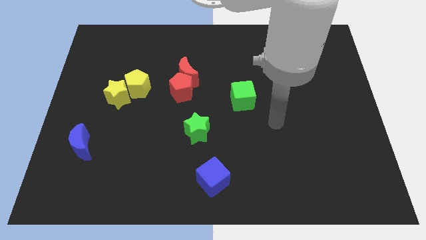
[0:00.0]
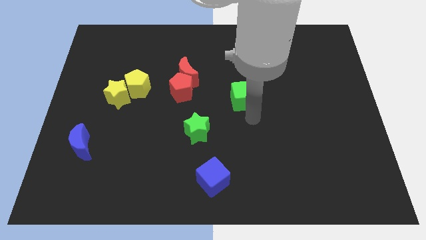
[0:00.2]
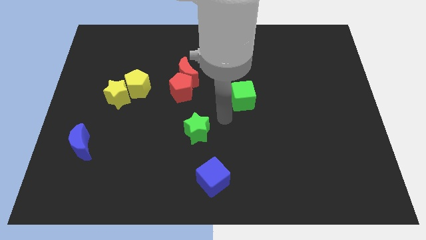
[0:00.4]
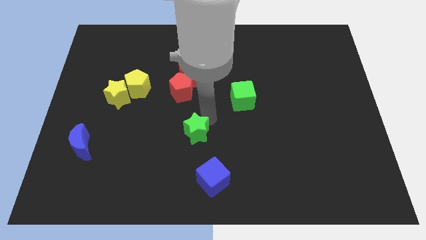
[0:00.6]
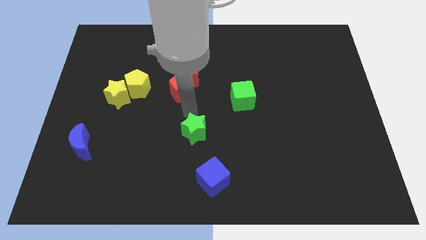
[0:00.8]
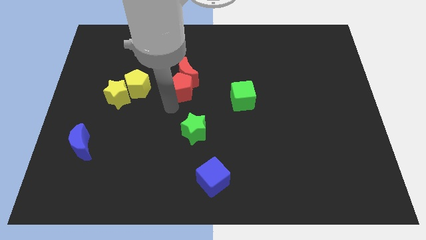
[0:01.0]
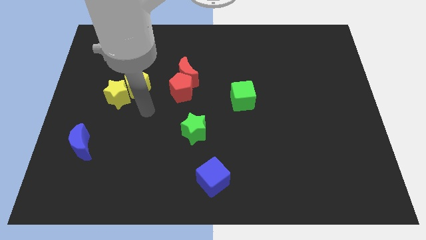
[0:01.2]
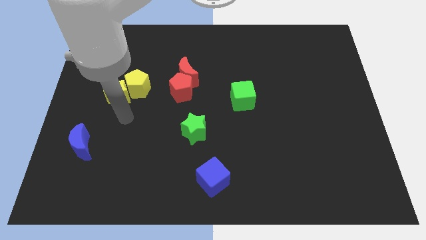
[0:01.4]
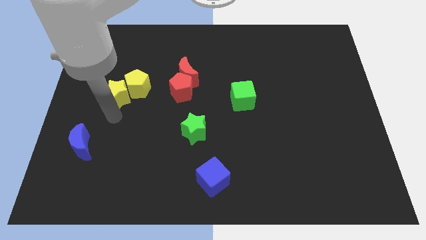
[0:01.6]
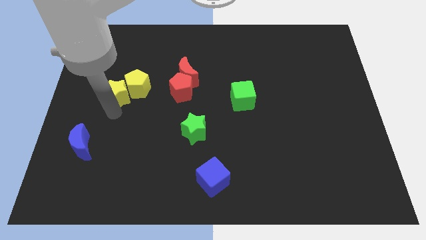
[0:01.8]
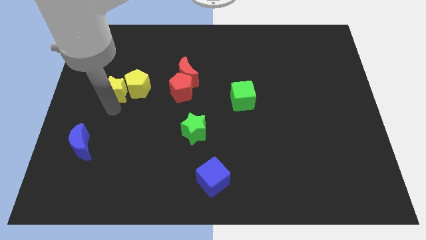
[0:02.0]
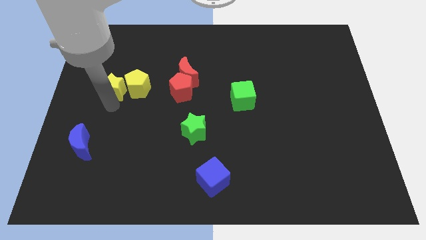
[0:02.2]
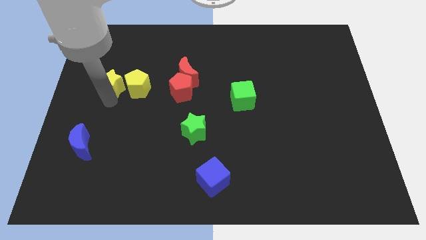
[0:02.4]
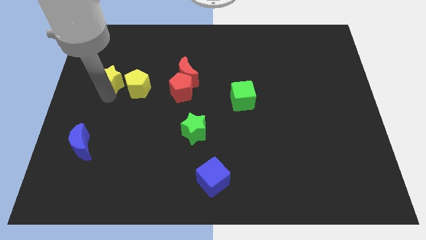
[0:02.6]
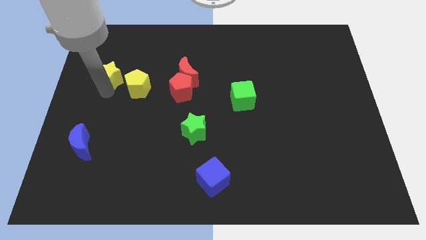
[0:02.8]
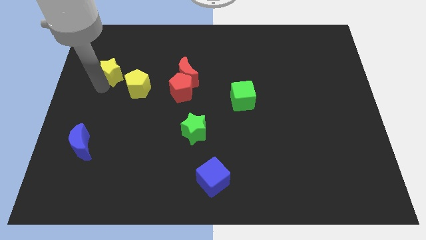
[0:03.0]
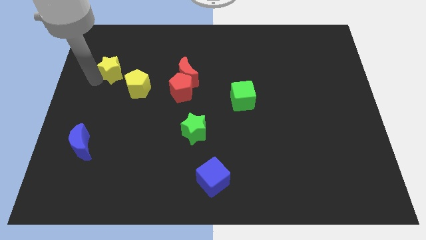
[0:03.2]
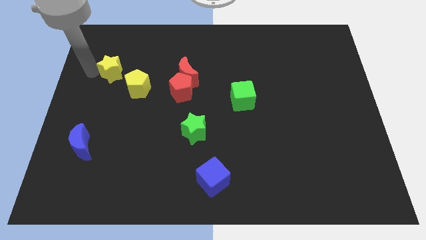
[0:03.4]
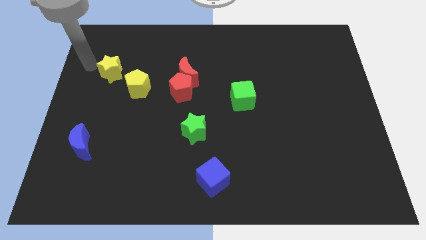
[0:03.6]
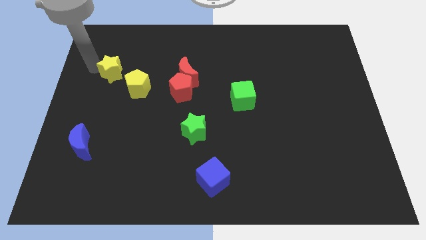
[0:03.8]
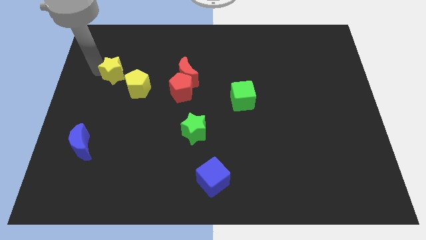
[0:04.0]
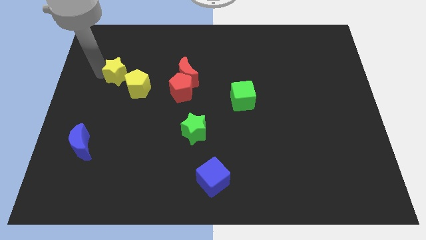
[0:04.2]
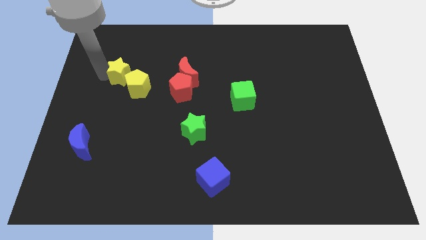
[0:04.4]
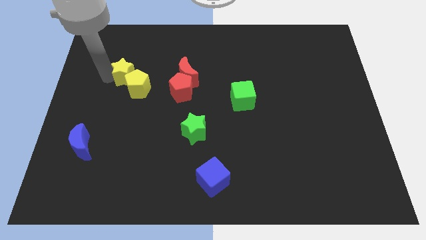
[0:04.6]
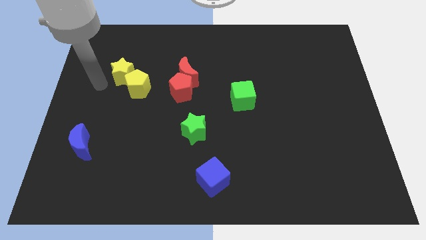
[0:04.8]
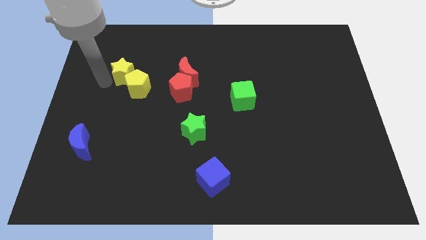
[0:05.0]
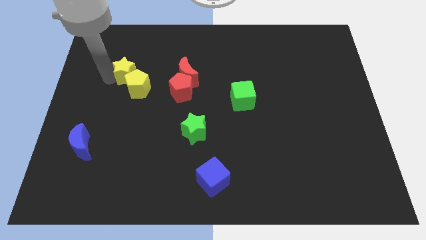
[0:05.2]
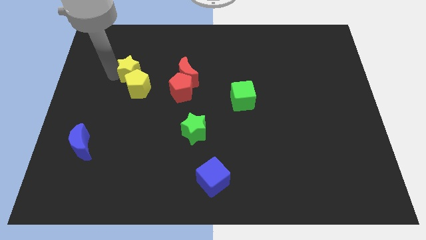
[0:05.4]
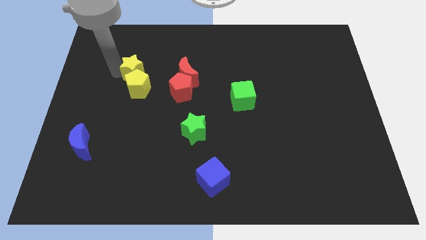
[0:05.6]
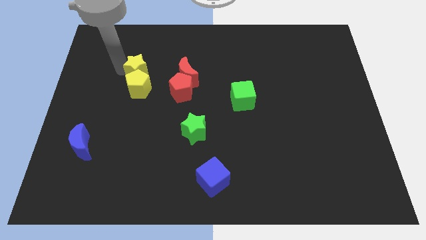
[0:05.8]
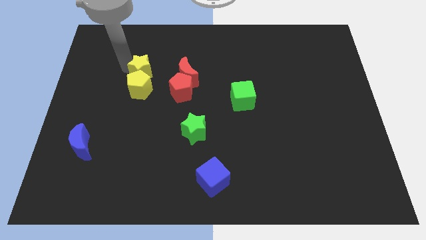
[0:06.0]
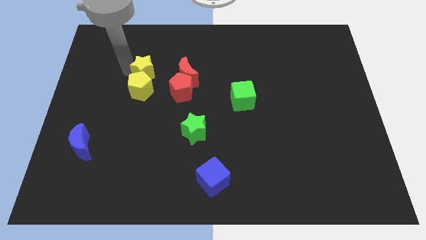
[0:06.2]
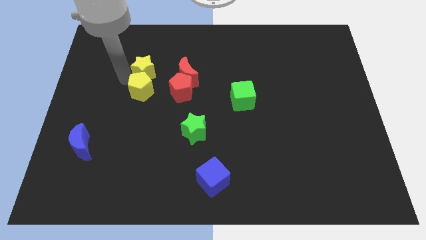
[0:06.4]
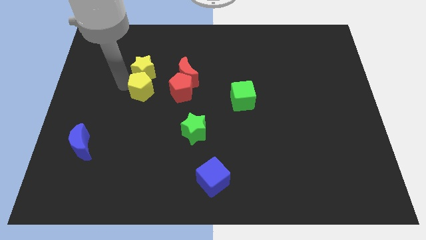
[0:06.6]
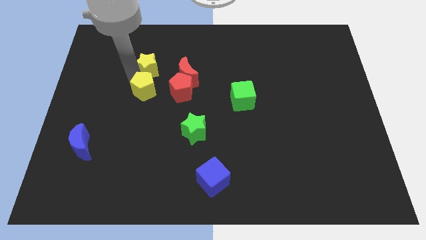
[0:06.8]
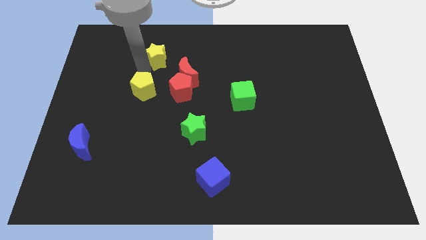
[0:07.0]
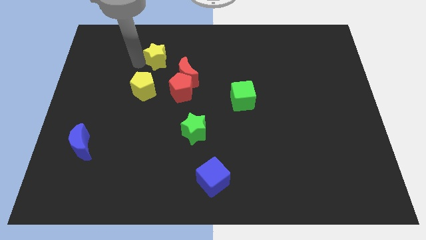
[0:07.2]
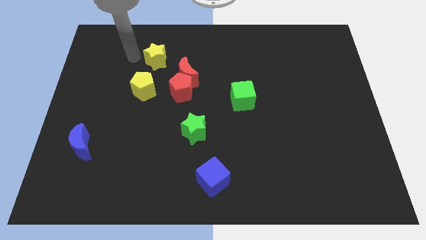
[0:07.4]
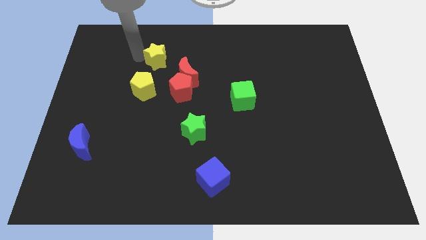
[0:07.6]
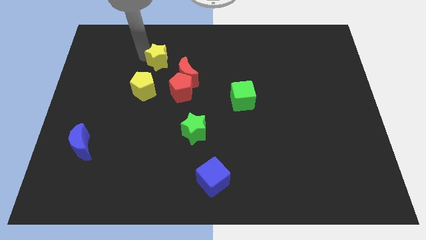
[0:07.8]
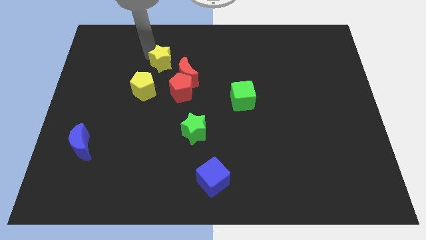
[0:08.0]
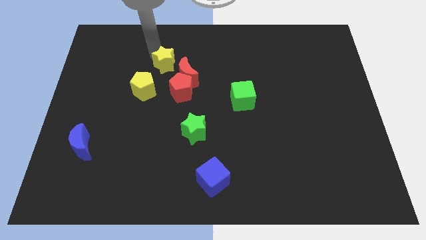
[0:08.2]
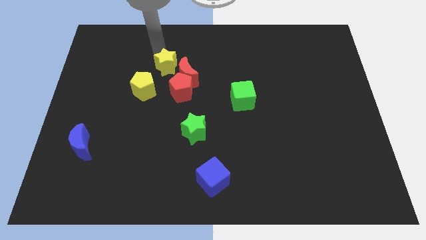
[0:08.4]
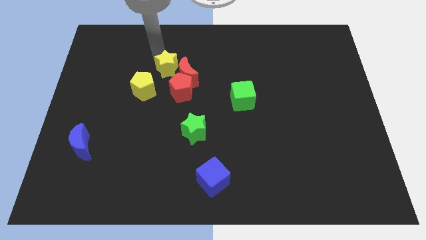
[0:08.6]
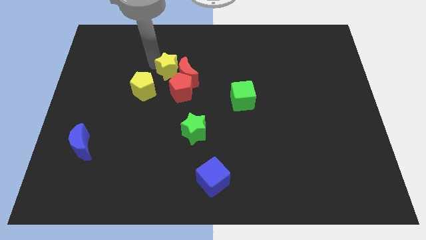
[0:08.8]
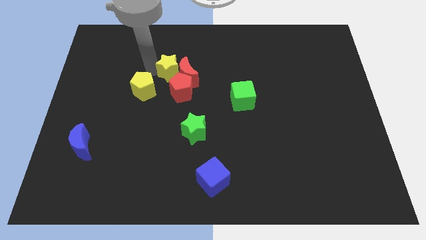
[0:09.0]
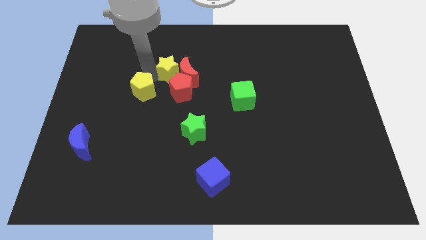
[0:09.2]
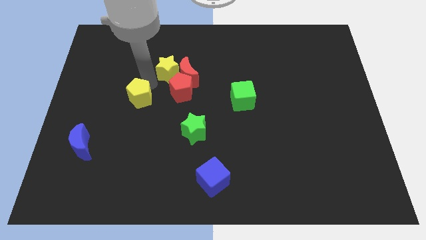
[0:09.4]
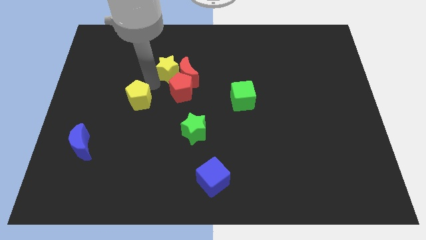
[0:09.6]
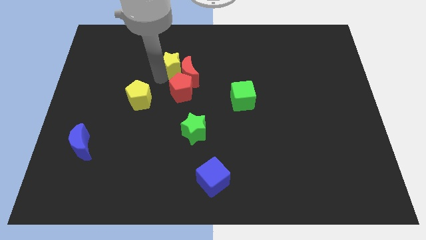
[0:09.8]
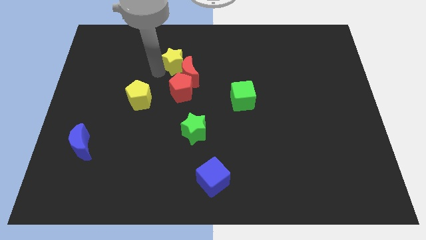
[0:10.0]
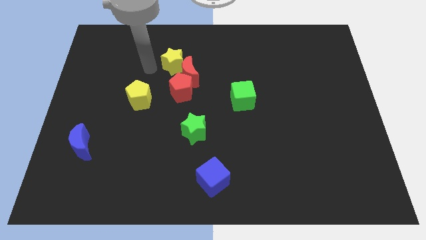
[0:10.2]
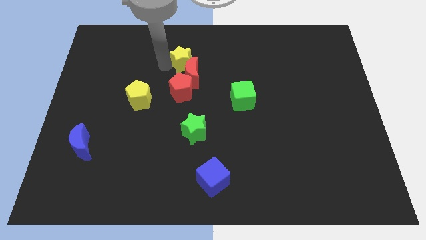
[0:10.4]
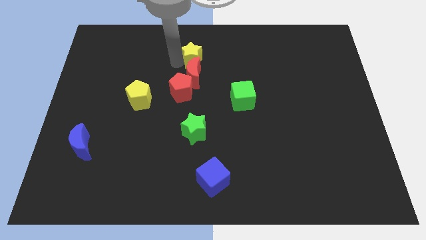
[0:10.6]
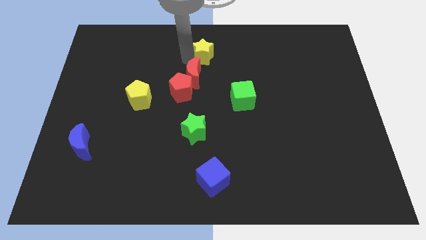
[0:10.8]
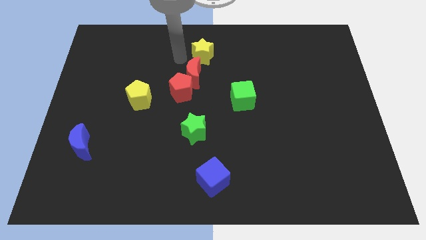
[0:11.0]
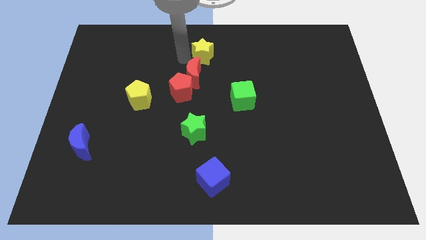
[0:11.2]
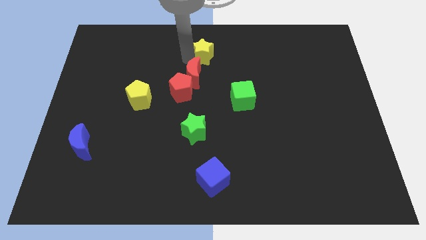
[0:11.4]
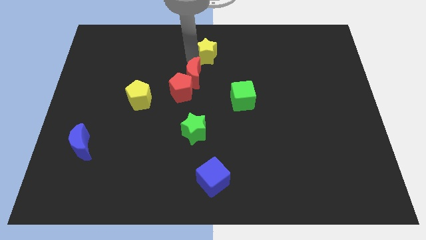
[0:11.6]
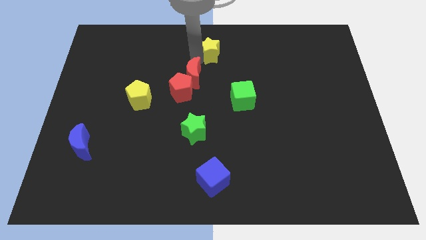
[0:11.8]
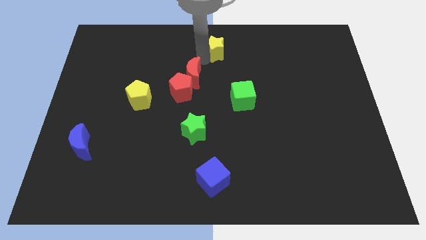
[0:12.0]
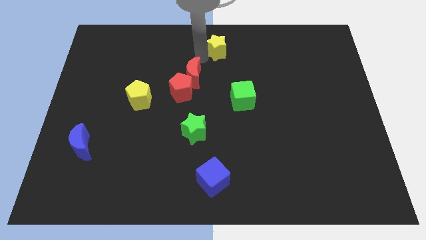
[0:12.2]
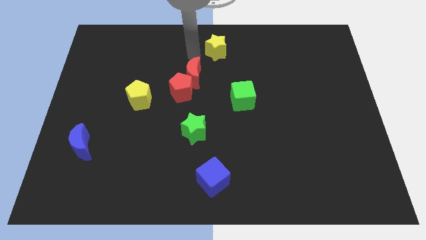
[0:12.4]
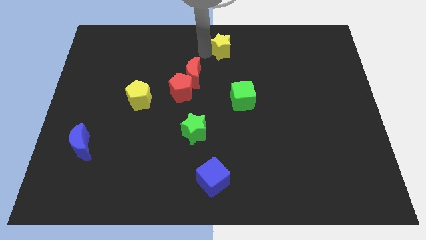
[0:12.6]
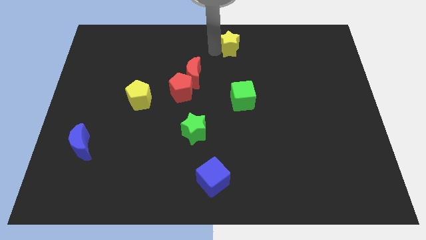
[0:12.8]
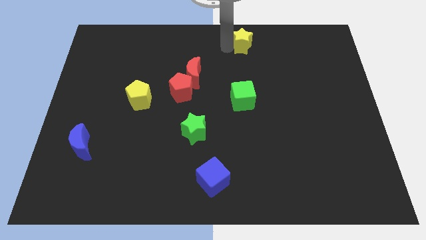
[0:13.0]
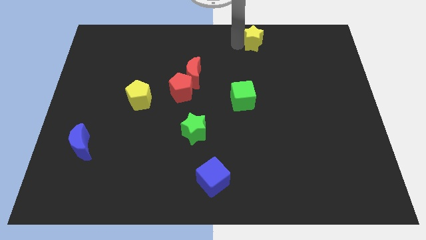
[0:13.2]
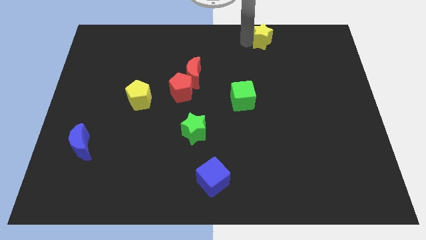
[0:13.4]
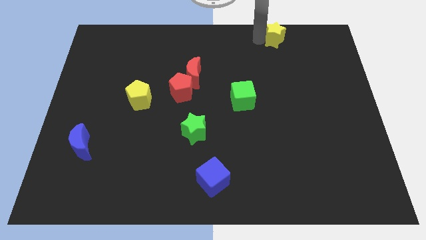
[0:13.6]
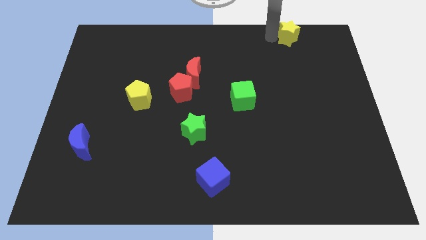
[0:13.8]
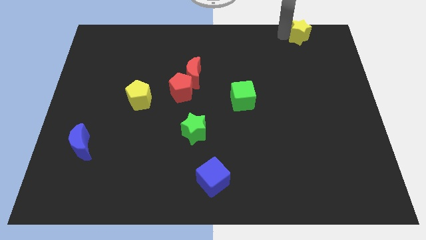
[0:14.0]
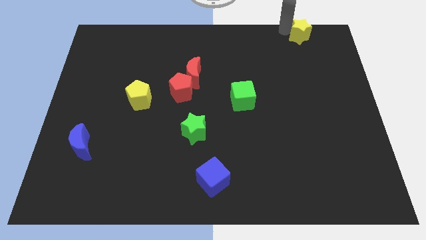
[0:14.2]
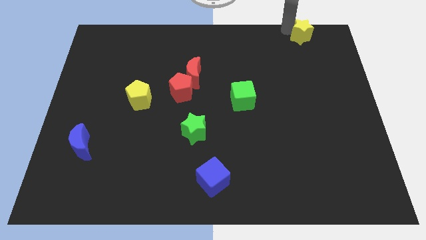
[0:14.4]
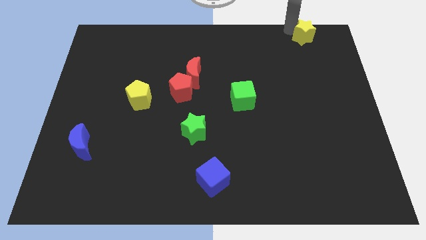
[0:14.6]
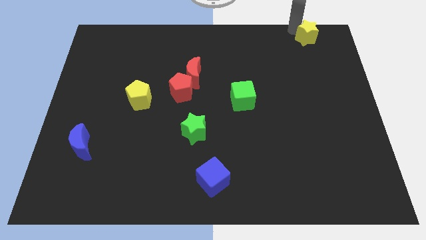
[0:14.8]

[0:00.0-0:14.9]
move the yellow star to the top right of the board
